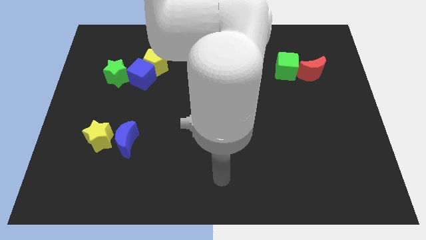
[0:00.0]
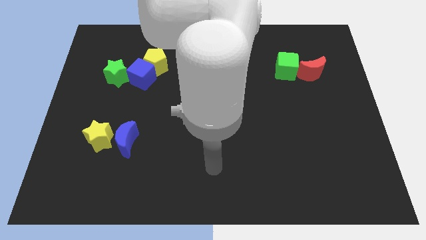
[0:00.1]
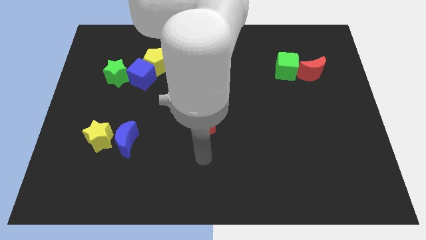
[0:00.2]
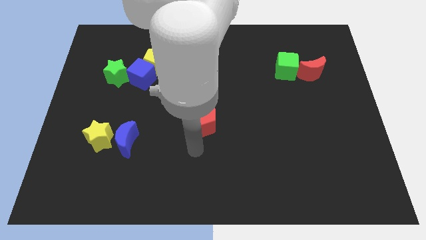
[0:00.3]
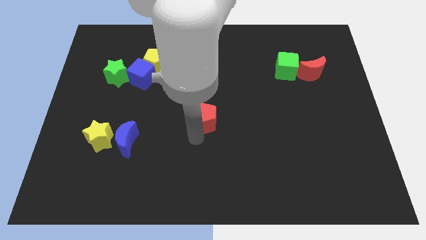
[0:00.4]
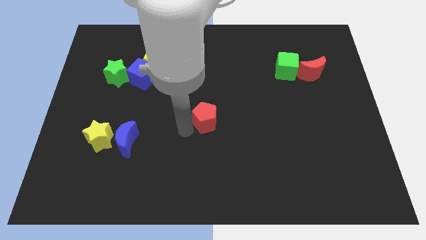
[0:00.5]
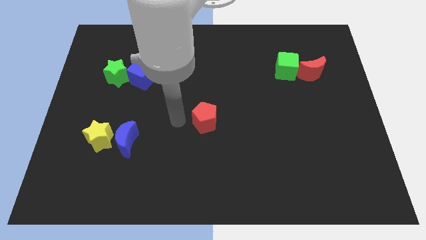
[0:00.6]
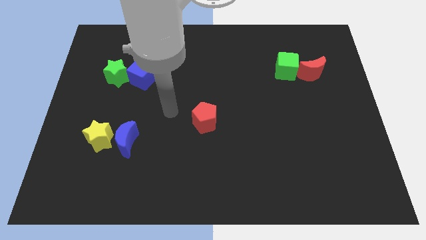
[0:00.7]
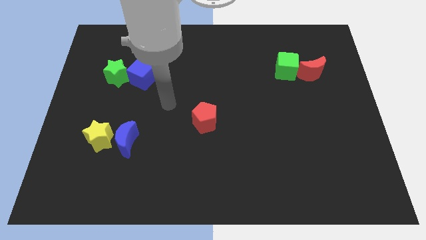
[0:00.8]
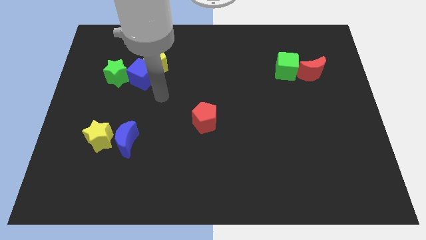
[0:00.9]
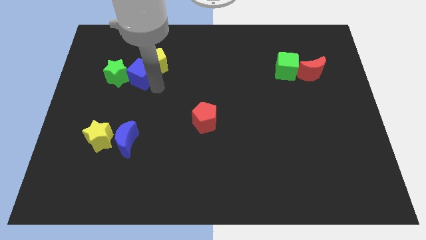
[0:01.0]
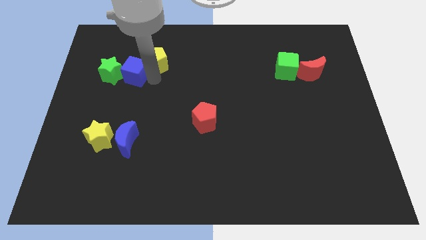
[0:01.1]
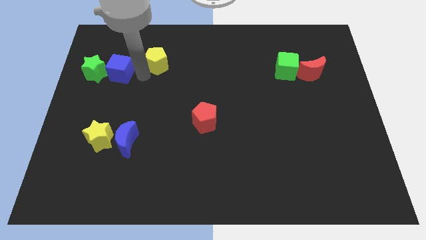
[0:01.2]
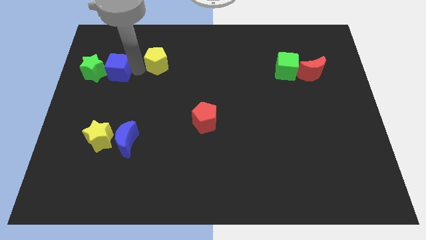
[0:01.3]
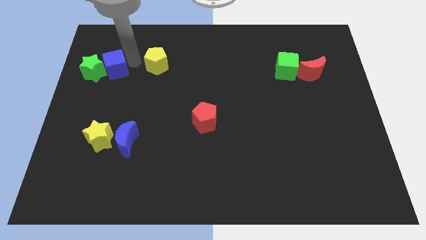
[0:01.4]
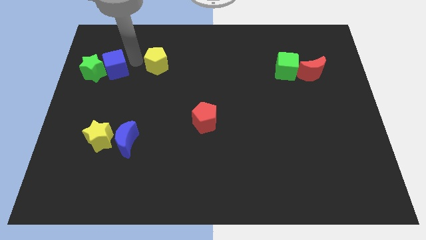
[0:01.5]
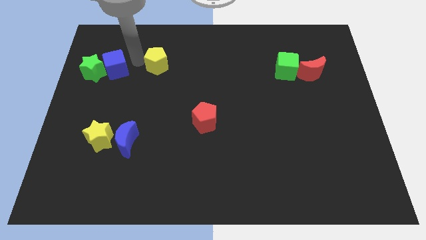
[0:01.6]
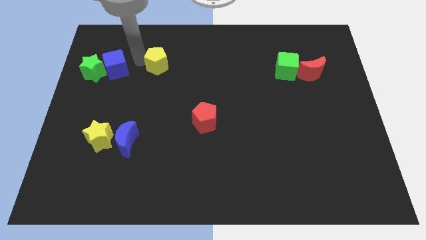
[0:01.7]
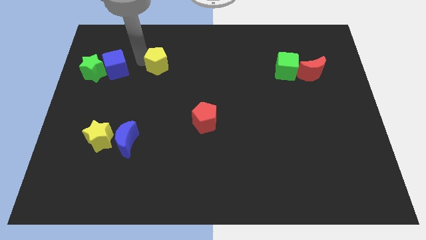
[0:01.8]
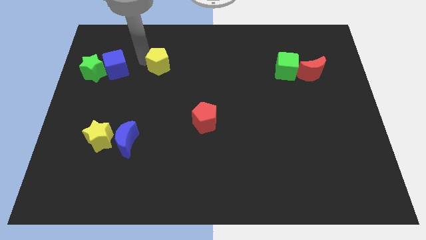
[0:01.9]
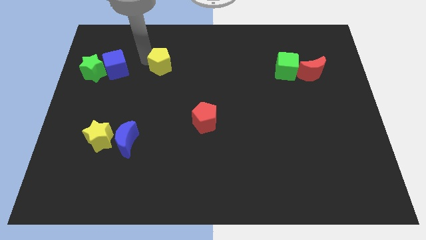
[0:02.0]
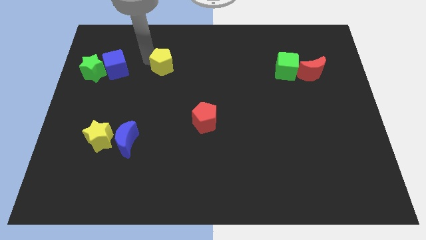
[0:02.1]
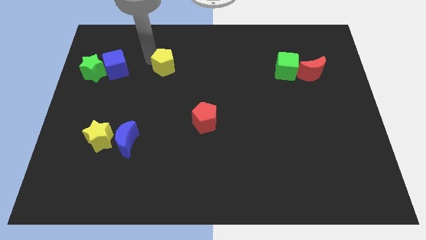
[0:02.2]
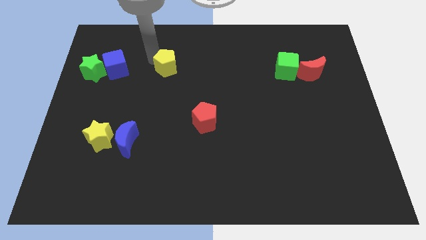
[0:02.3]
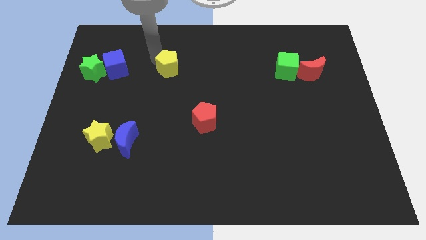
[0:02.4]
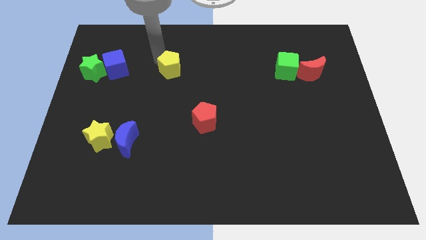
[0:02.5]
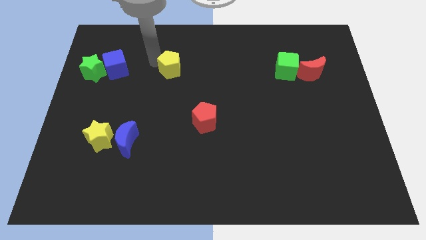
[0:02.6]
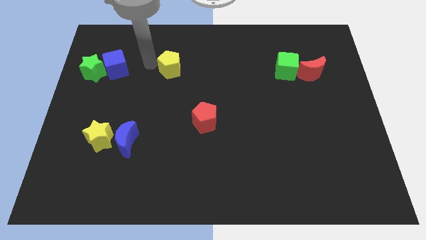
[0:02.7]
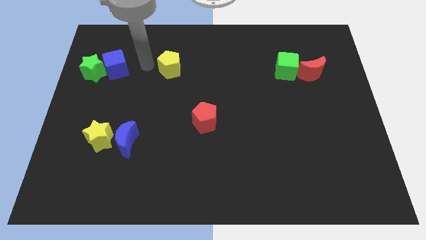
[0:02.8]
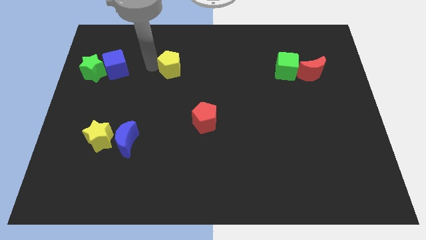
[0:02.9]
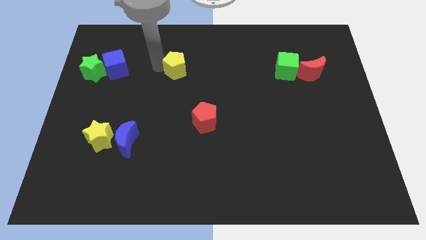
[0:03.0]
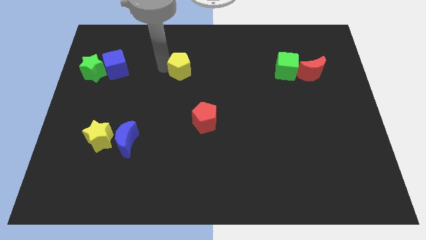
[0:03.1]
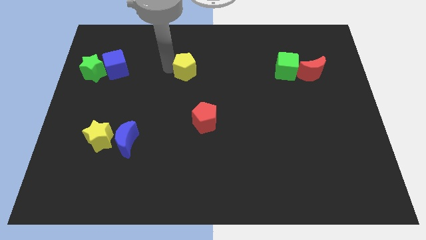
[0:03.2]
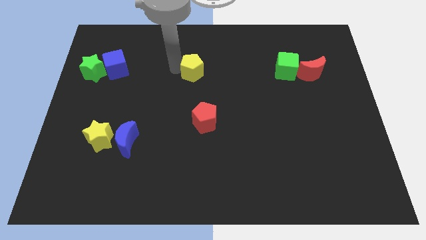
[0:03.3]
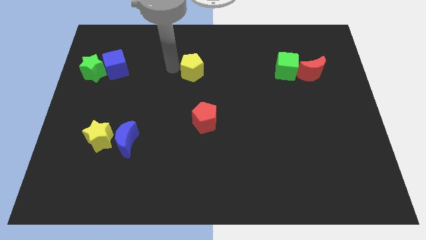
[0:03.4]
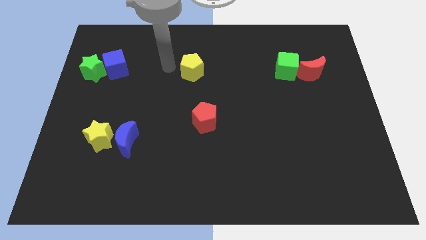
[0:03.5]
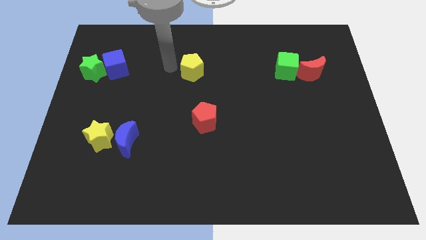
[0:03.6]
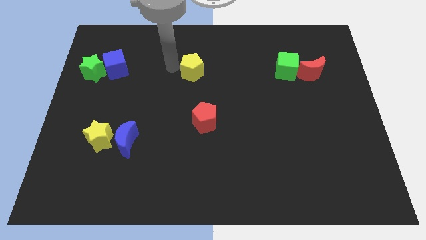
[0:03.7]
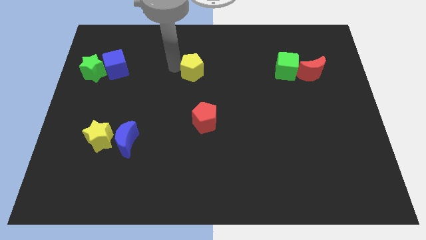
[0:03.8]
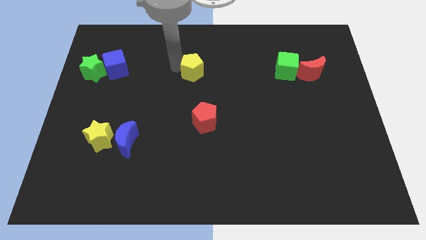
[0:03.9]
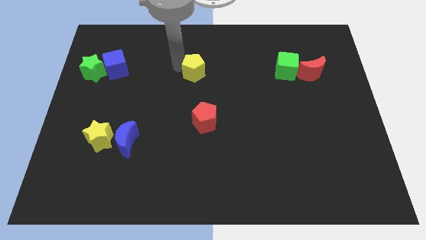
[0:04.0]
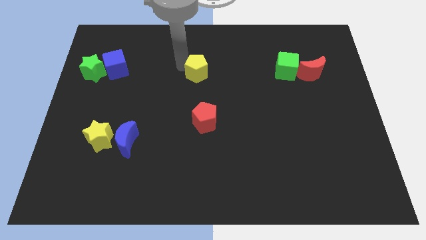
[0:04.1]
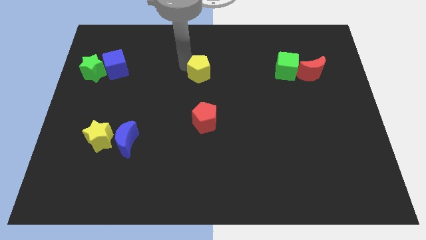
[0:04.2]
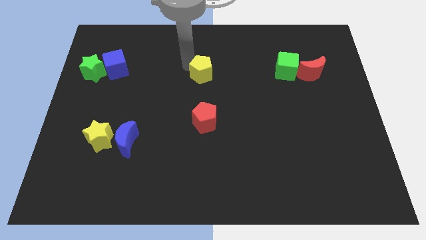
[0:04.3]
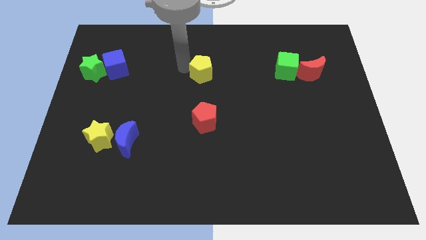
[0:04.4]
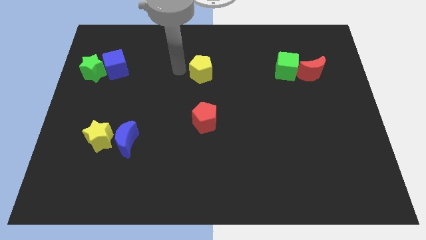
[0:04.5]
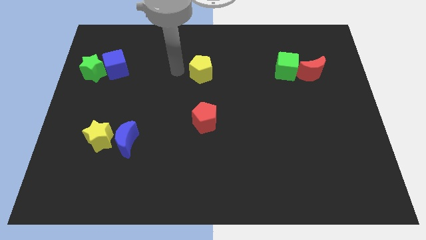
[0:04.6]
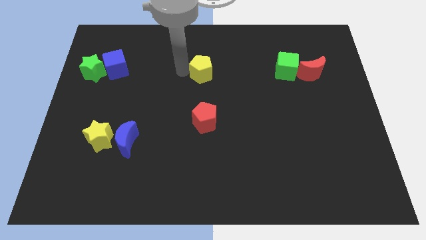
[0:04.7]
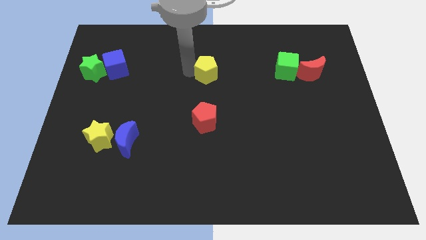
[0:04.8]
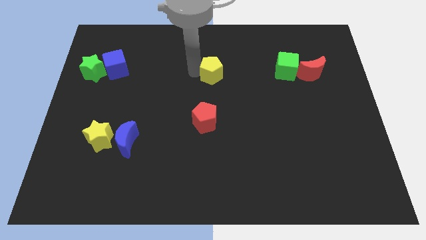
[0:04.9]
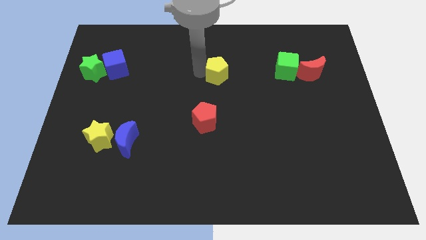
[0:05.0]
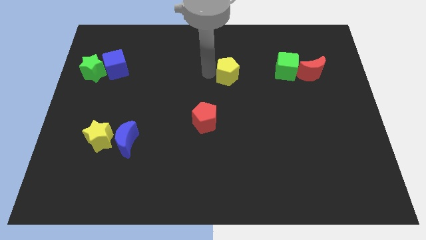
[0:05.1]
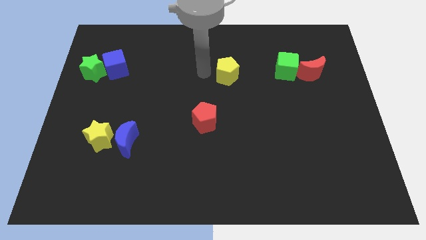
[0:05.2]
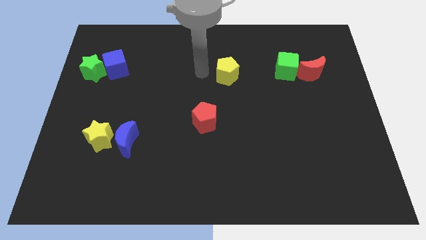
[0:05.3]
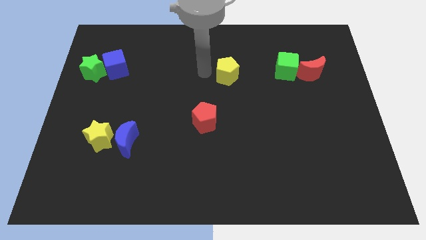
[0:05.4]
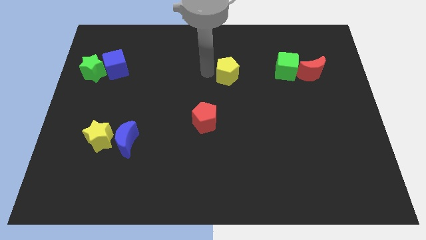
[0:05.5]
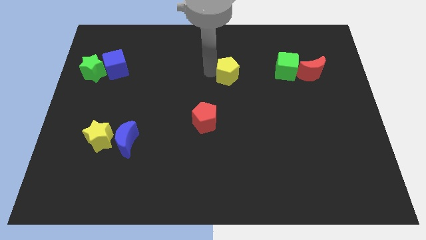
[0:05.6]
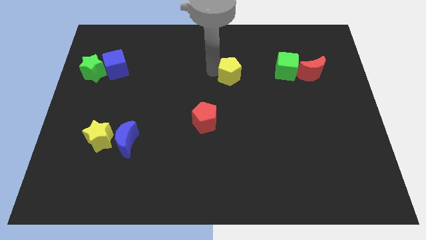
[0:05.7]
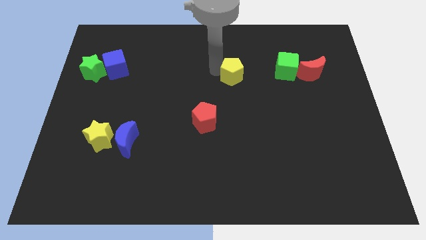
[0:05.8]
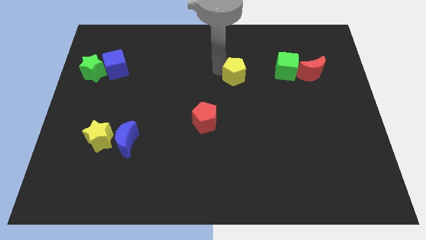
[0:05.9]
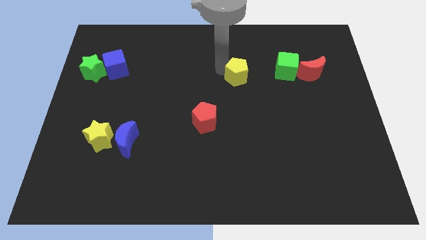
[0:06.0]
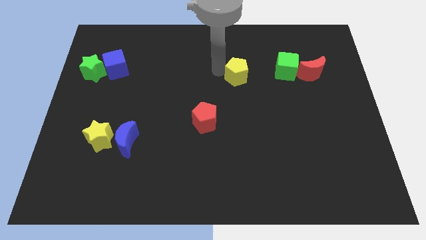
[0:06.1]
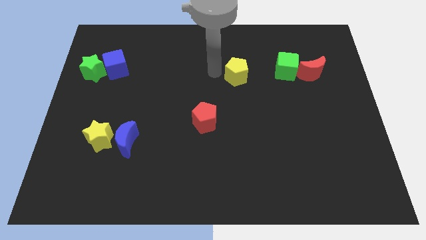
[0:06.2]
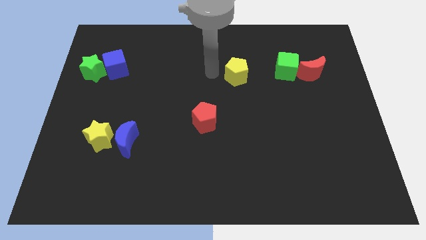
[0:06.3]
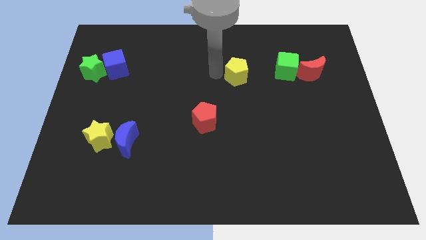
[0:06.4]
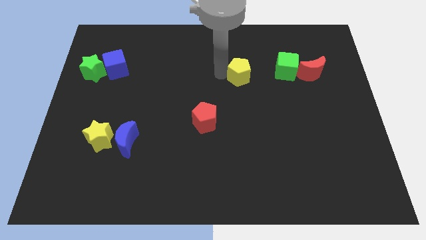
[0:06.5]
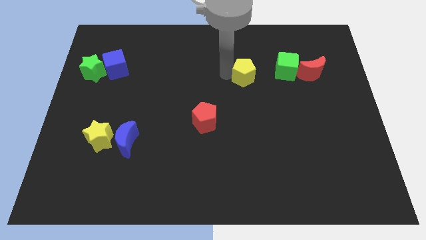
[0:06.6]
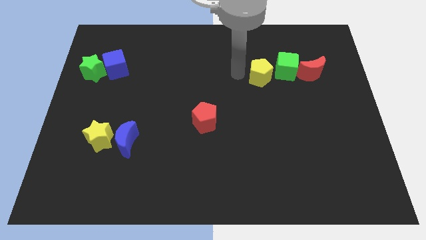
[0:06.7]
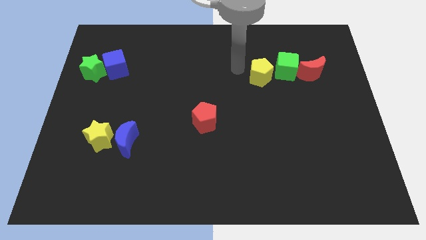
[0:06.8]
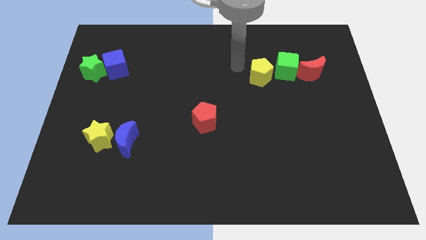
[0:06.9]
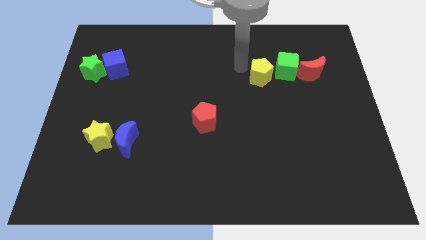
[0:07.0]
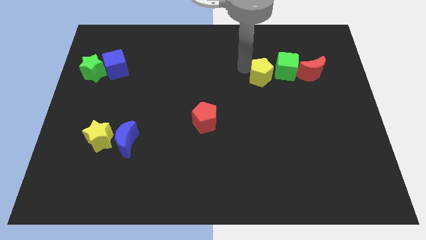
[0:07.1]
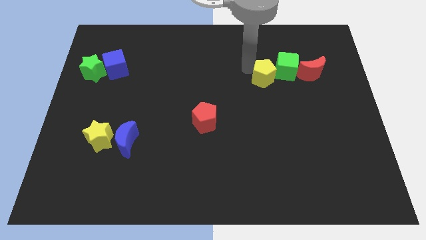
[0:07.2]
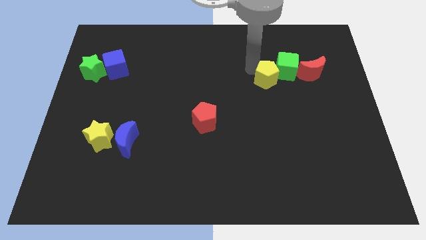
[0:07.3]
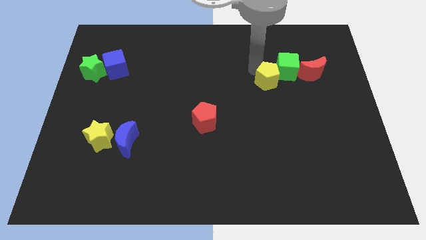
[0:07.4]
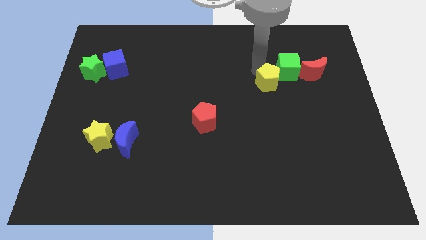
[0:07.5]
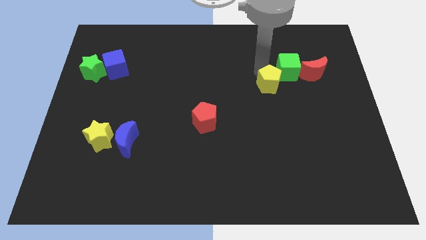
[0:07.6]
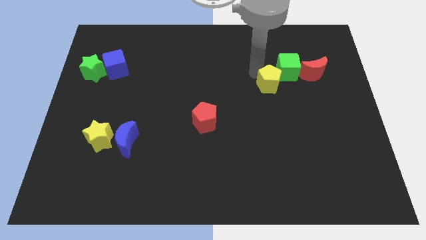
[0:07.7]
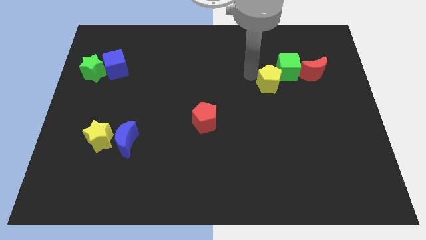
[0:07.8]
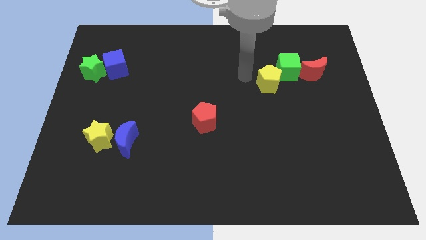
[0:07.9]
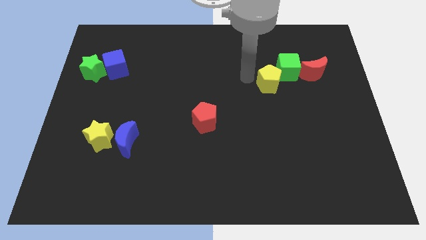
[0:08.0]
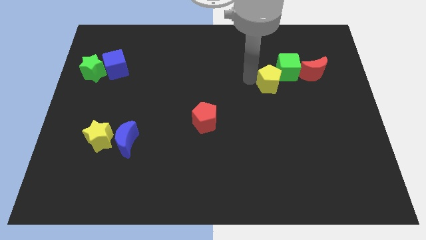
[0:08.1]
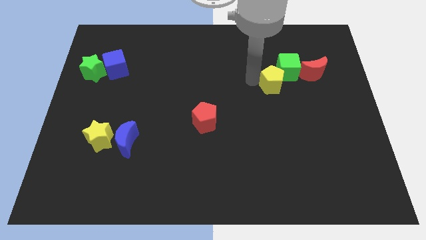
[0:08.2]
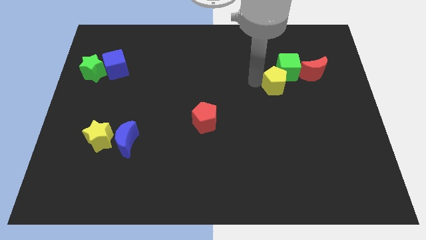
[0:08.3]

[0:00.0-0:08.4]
put the yellow pentagon diagonally down and to the left of the red moon
